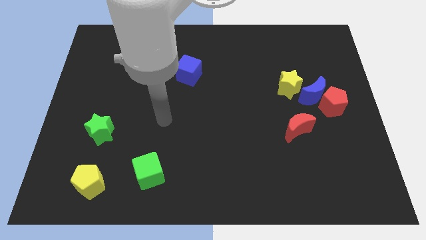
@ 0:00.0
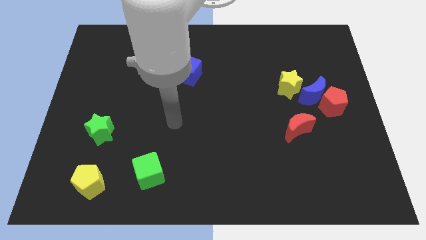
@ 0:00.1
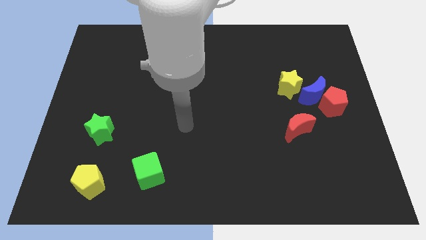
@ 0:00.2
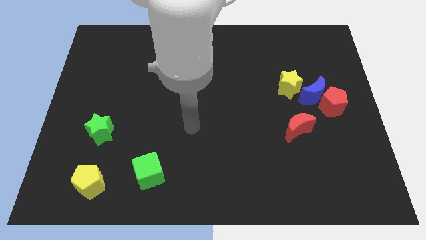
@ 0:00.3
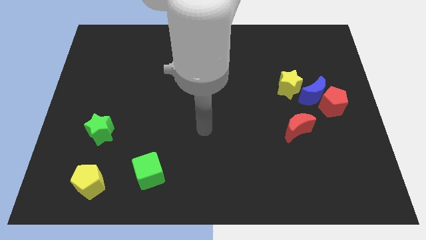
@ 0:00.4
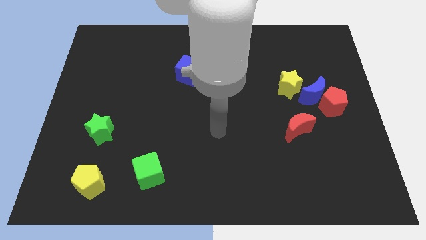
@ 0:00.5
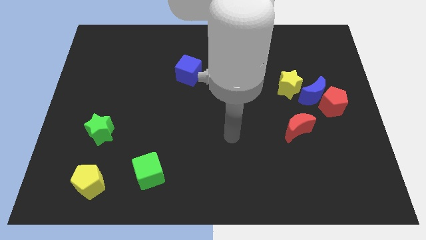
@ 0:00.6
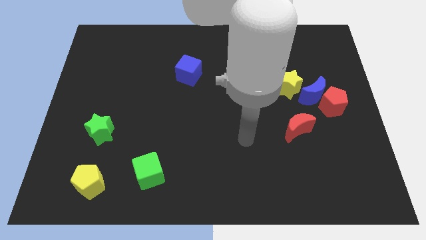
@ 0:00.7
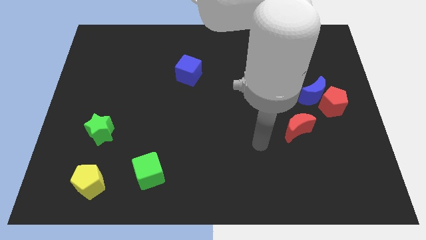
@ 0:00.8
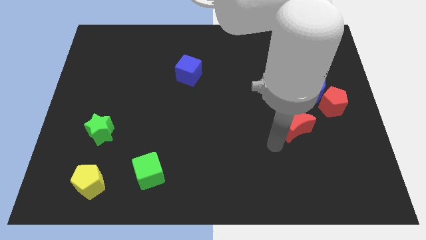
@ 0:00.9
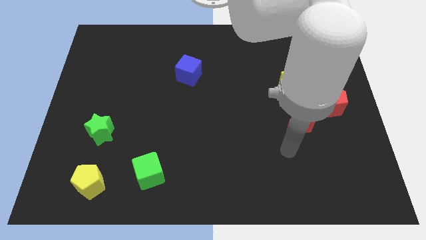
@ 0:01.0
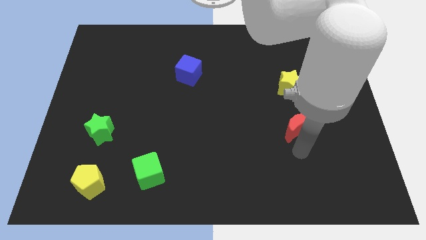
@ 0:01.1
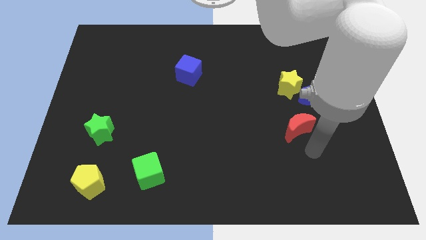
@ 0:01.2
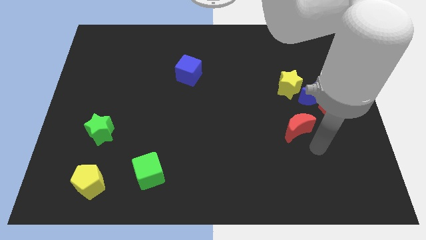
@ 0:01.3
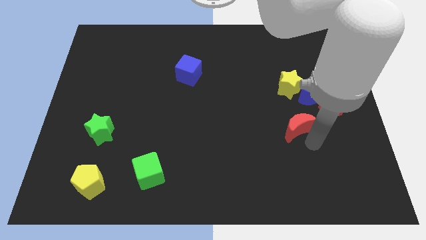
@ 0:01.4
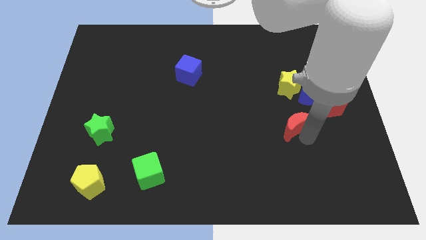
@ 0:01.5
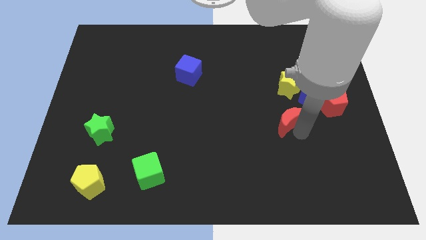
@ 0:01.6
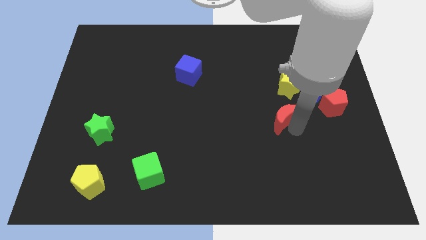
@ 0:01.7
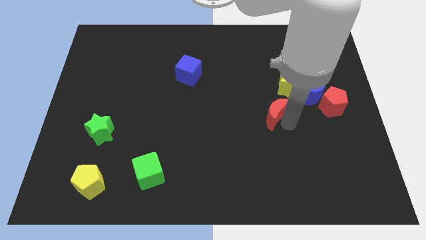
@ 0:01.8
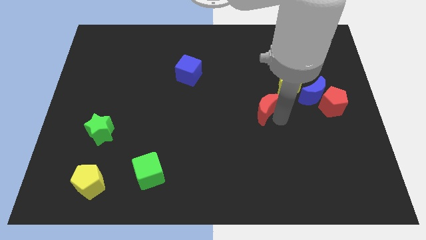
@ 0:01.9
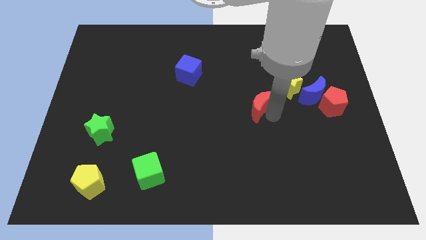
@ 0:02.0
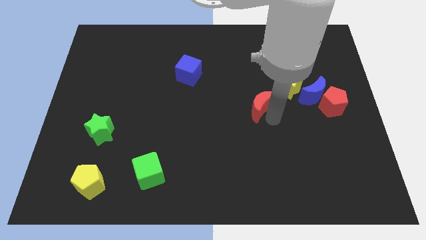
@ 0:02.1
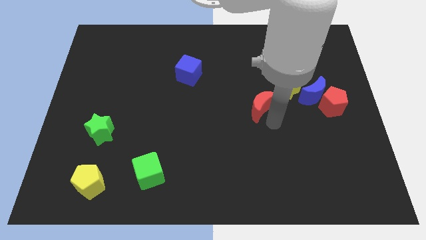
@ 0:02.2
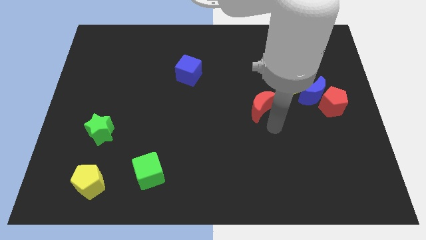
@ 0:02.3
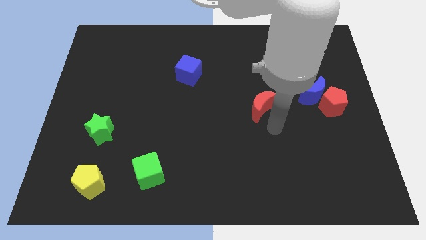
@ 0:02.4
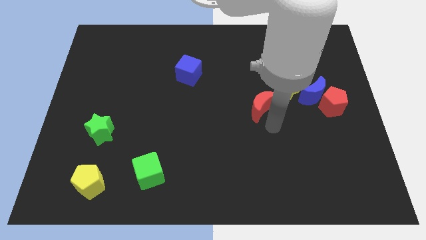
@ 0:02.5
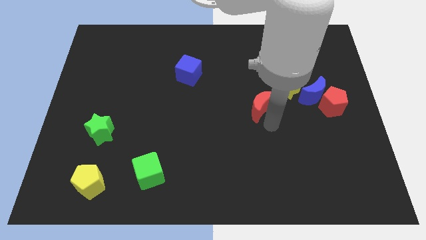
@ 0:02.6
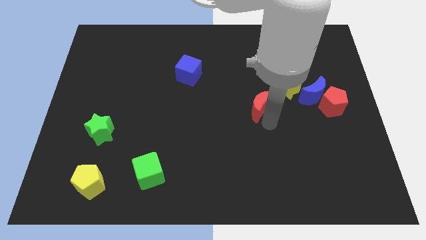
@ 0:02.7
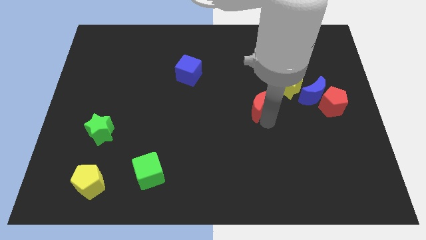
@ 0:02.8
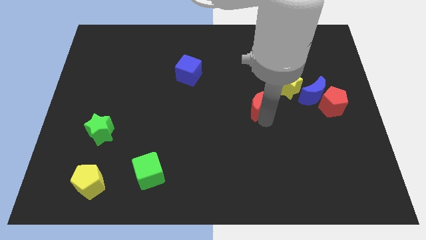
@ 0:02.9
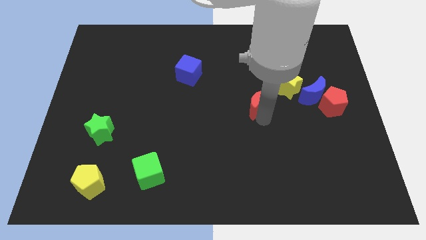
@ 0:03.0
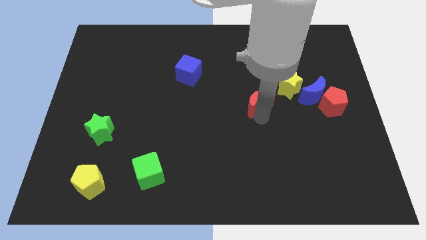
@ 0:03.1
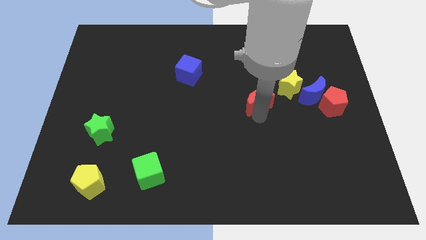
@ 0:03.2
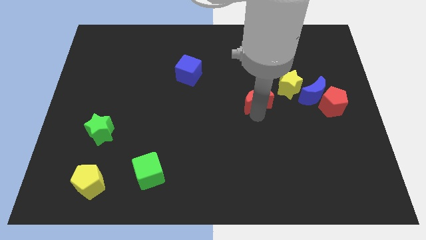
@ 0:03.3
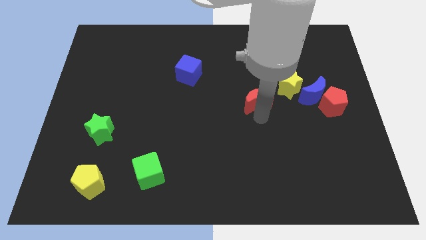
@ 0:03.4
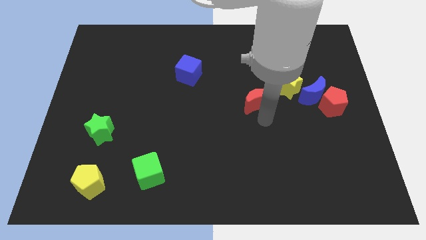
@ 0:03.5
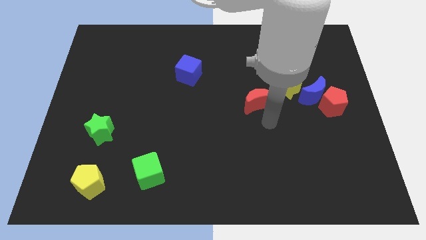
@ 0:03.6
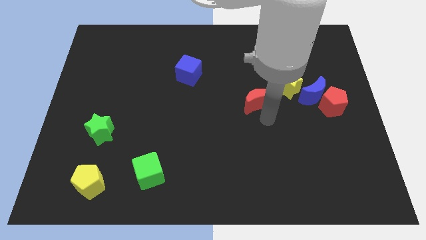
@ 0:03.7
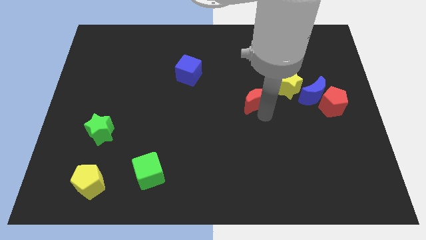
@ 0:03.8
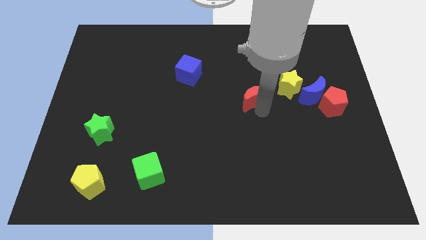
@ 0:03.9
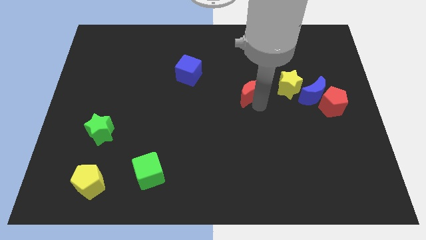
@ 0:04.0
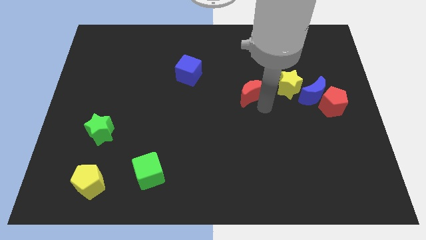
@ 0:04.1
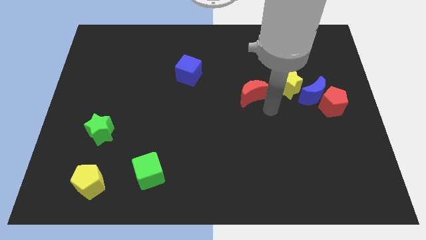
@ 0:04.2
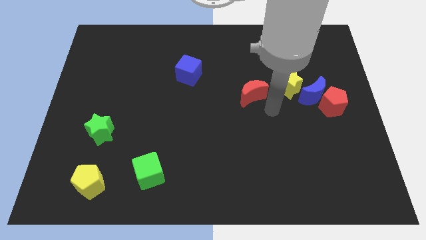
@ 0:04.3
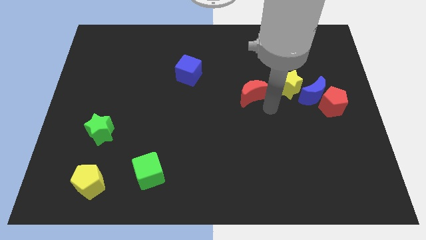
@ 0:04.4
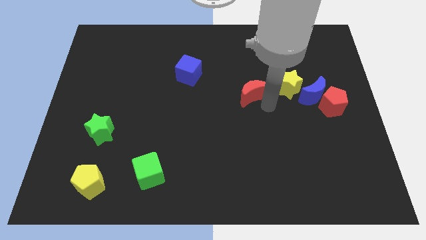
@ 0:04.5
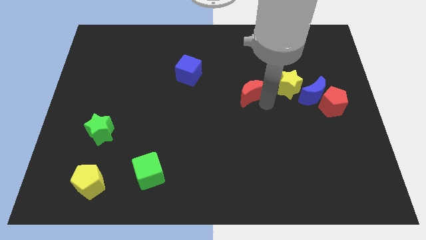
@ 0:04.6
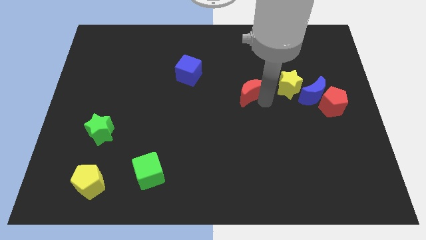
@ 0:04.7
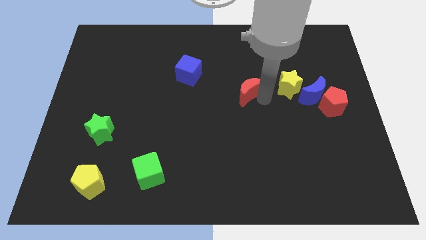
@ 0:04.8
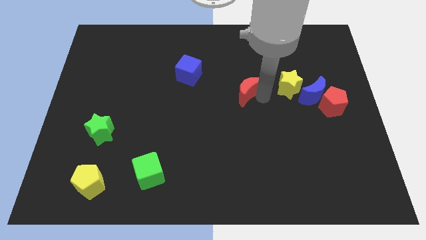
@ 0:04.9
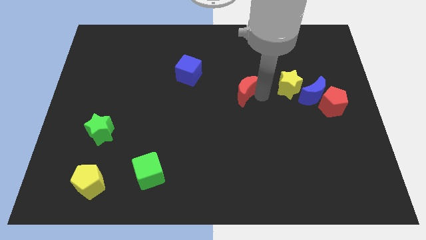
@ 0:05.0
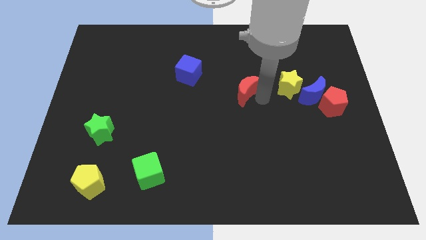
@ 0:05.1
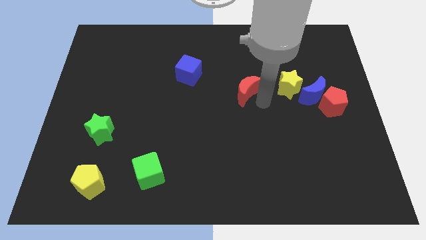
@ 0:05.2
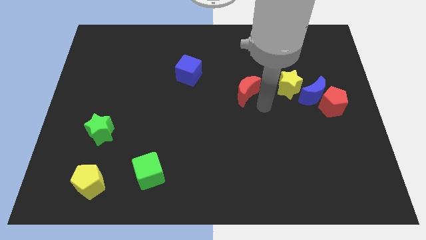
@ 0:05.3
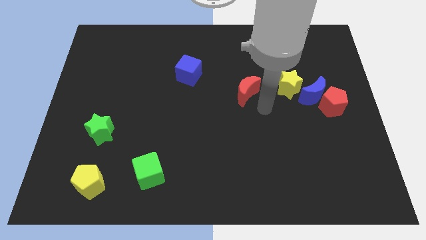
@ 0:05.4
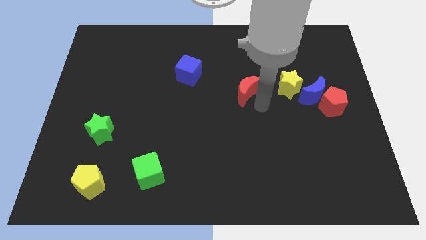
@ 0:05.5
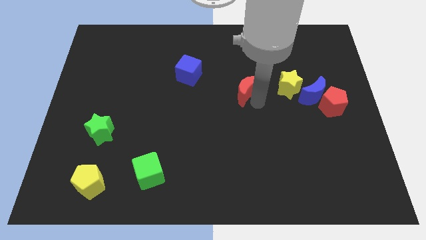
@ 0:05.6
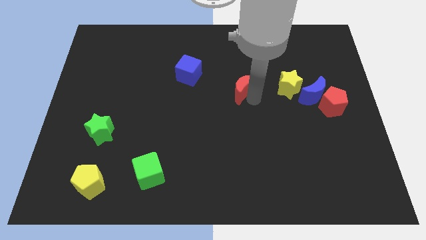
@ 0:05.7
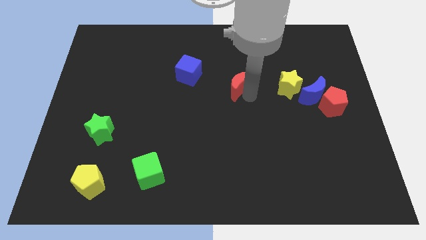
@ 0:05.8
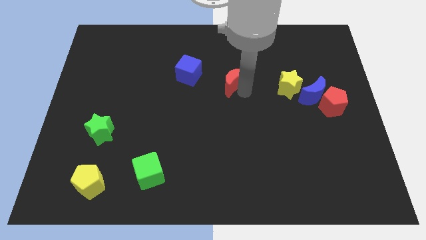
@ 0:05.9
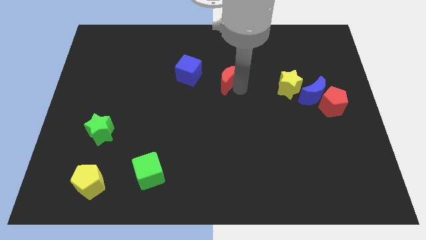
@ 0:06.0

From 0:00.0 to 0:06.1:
push the red moon upwards and to the left

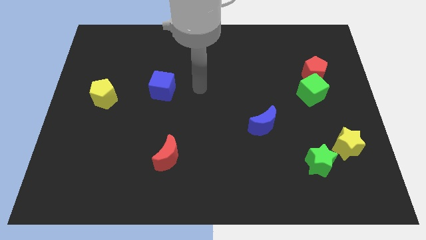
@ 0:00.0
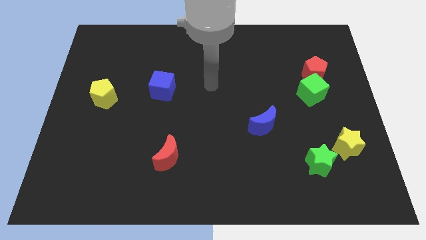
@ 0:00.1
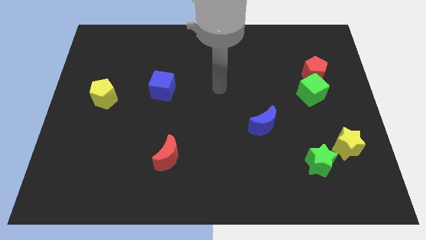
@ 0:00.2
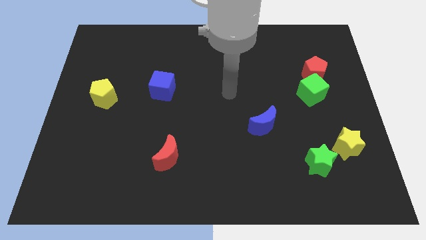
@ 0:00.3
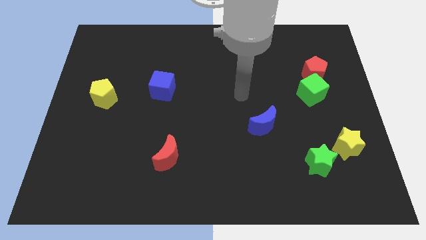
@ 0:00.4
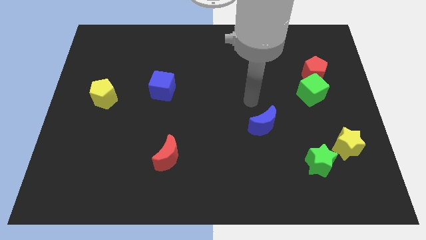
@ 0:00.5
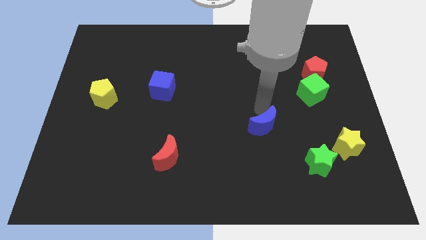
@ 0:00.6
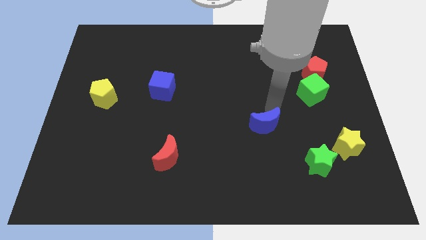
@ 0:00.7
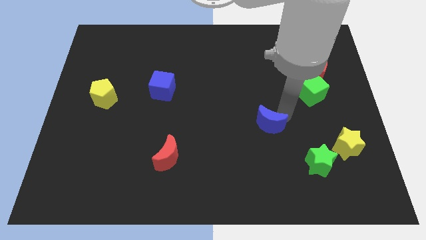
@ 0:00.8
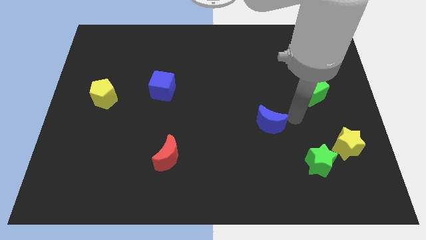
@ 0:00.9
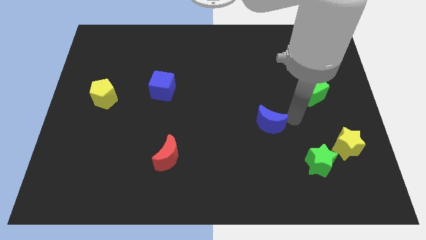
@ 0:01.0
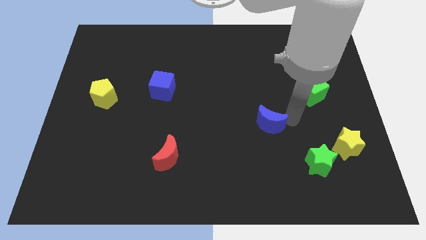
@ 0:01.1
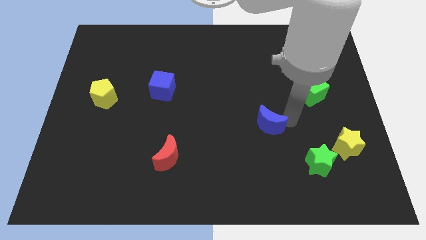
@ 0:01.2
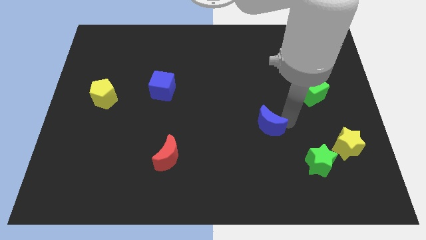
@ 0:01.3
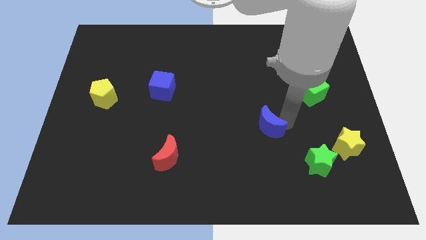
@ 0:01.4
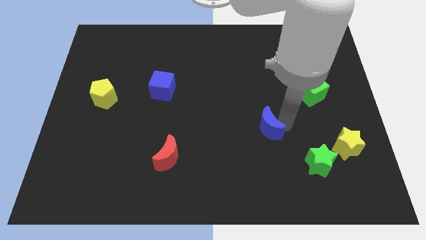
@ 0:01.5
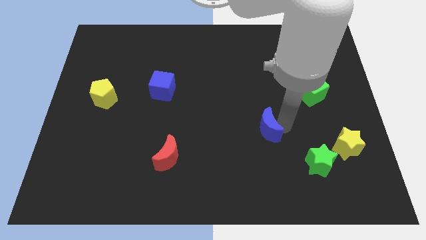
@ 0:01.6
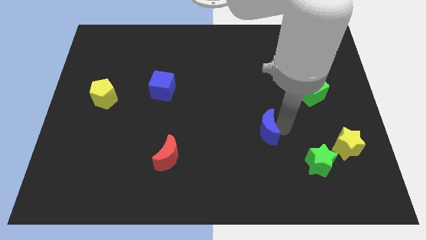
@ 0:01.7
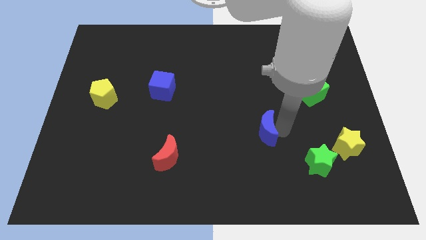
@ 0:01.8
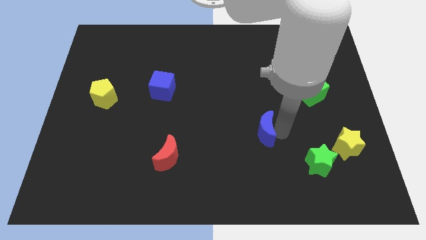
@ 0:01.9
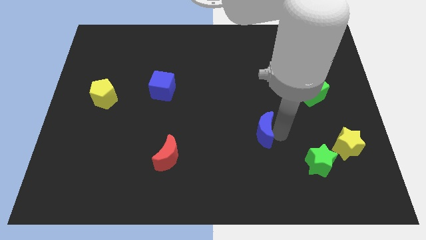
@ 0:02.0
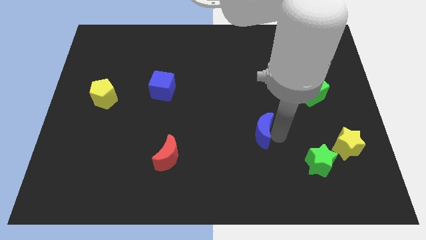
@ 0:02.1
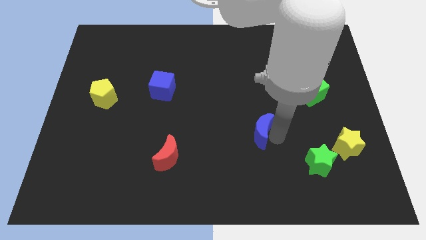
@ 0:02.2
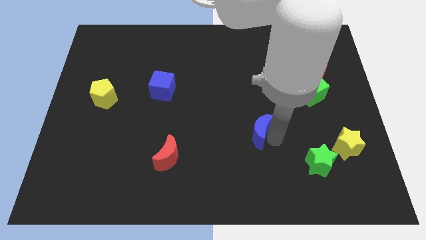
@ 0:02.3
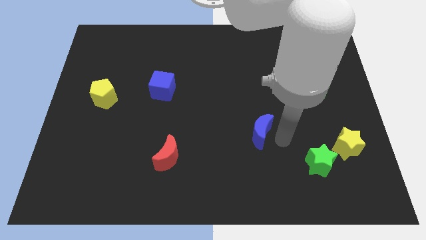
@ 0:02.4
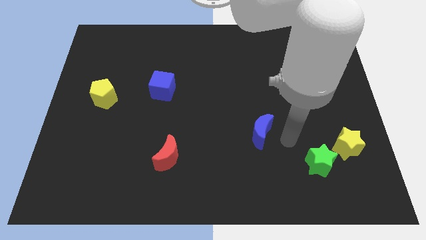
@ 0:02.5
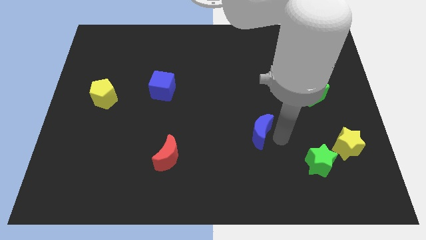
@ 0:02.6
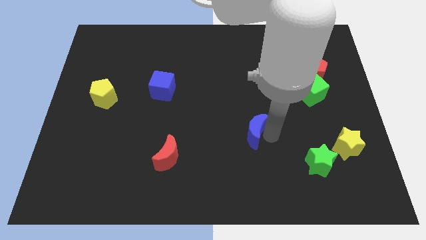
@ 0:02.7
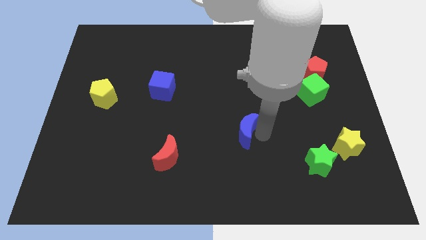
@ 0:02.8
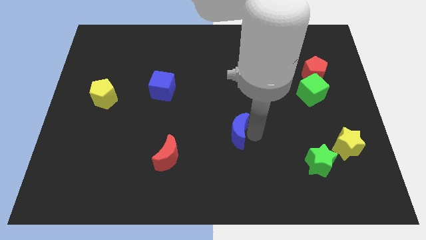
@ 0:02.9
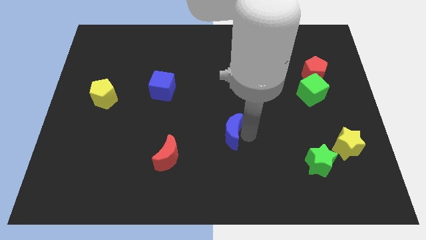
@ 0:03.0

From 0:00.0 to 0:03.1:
slightly push the blue moon left
